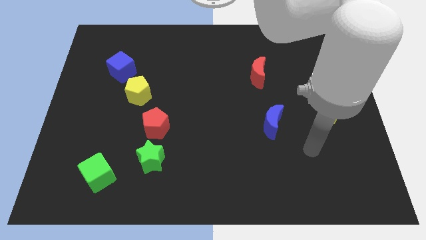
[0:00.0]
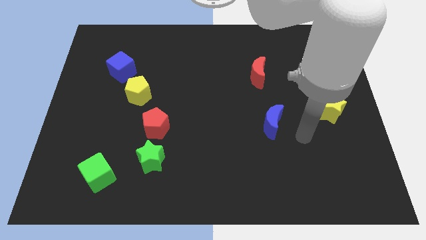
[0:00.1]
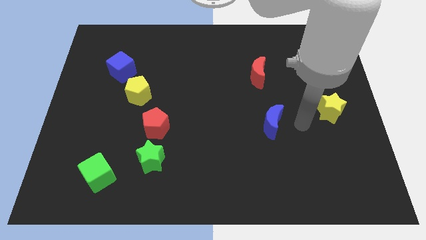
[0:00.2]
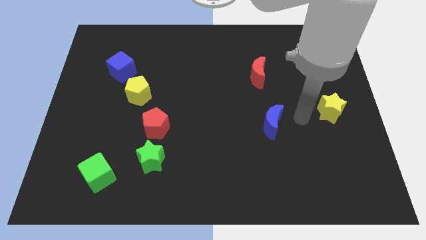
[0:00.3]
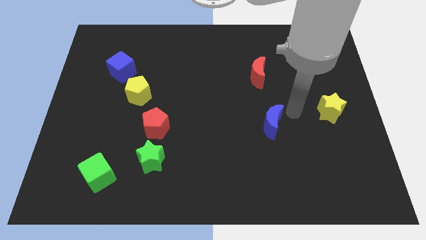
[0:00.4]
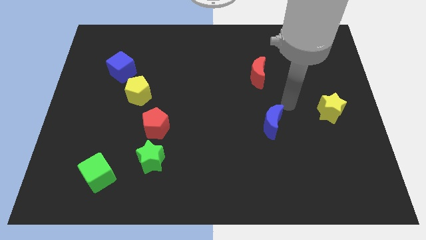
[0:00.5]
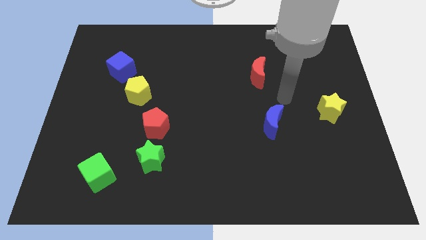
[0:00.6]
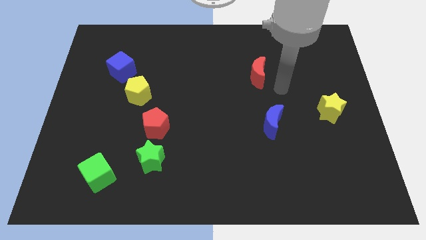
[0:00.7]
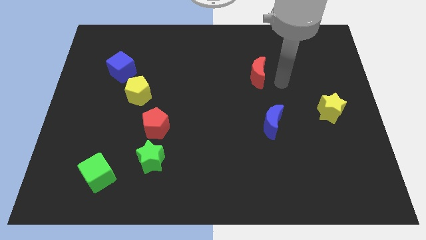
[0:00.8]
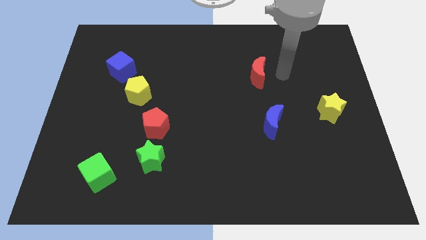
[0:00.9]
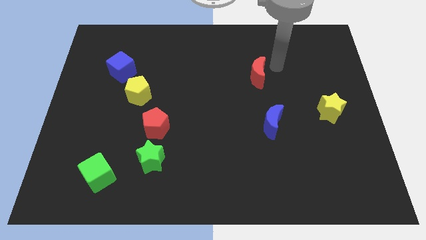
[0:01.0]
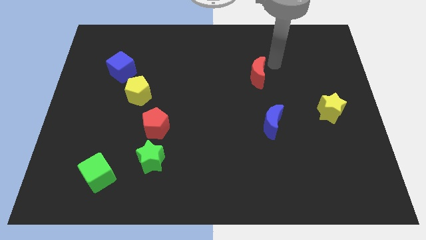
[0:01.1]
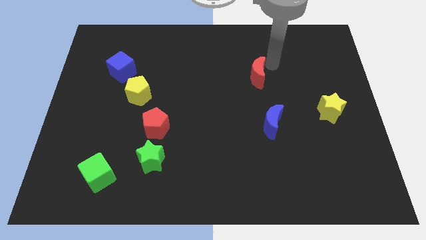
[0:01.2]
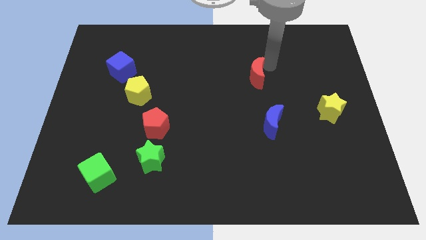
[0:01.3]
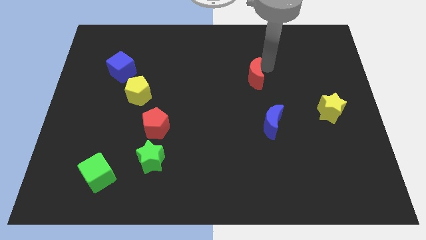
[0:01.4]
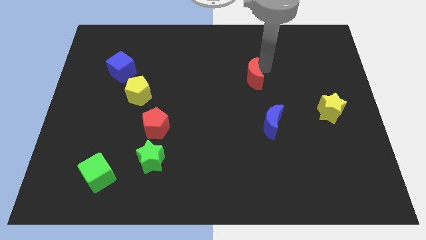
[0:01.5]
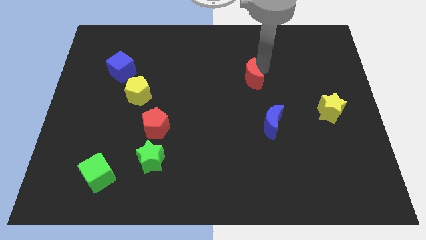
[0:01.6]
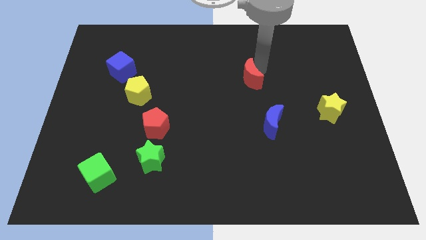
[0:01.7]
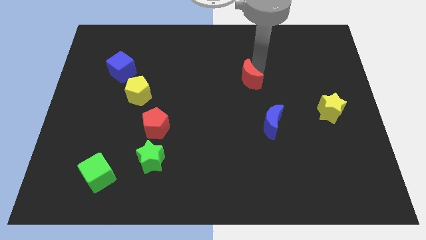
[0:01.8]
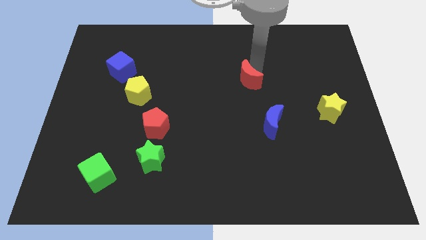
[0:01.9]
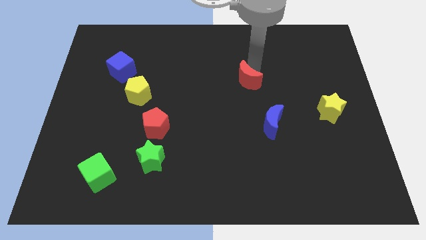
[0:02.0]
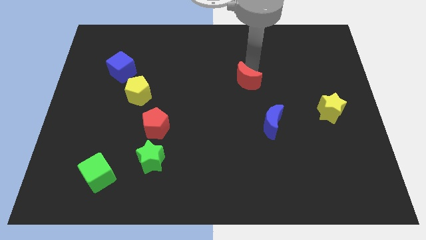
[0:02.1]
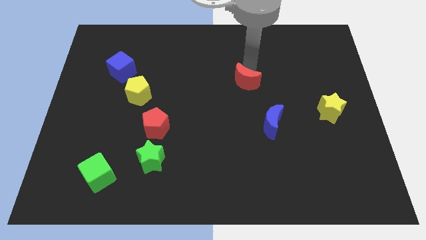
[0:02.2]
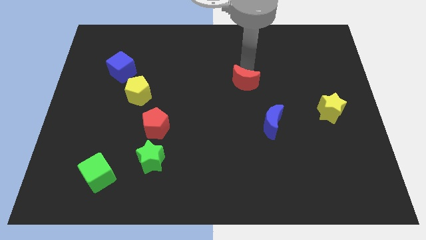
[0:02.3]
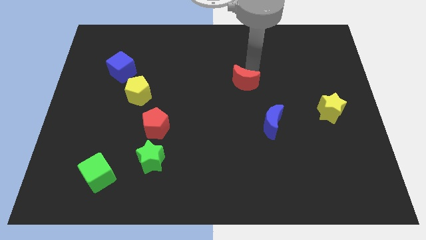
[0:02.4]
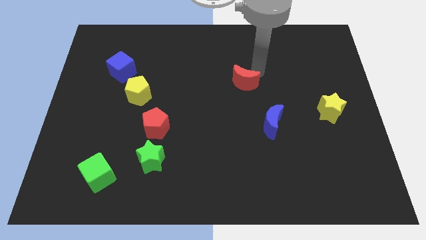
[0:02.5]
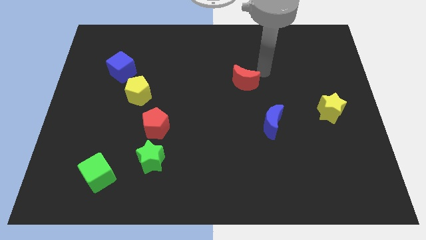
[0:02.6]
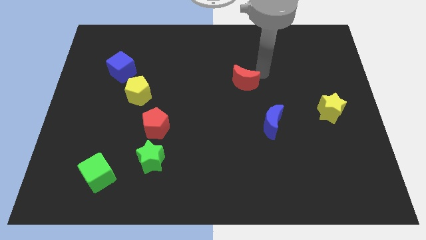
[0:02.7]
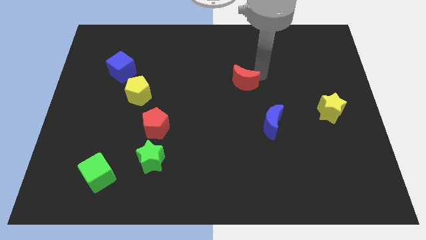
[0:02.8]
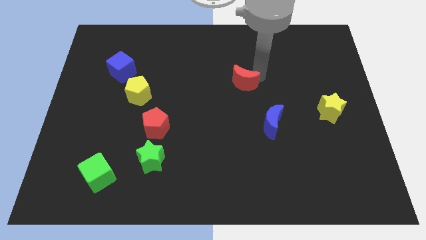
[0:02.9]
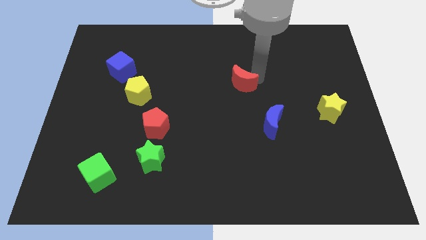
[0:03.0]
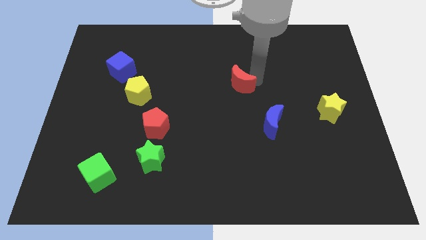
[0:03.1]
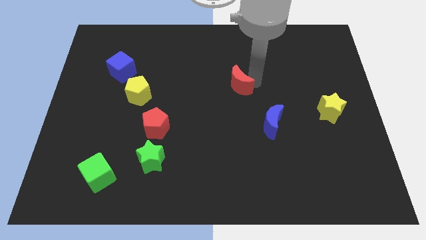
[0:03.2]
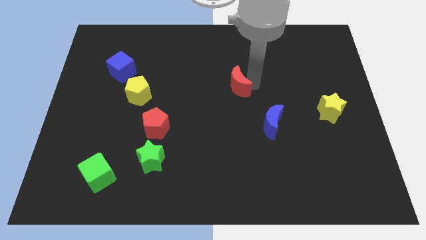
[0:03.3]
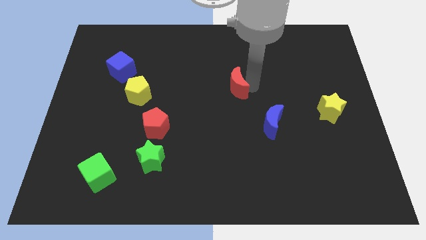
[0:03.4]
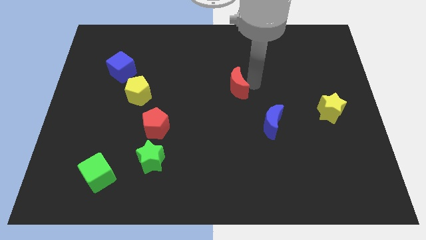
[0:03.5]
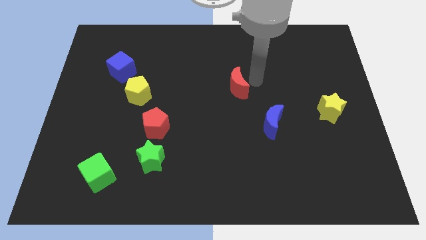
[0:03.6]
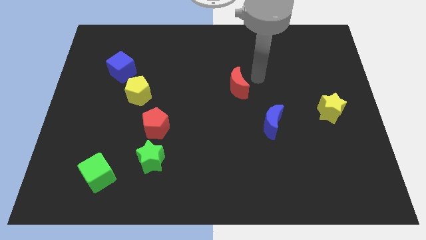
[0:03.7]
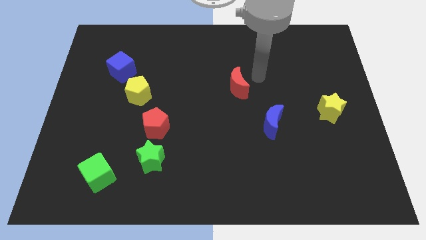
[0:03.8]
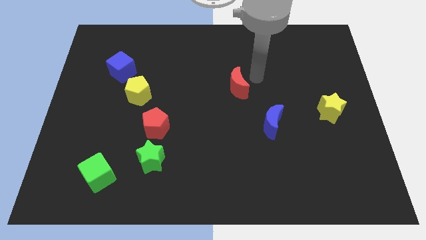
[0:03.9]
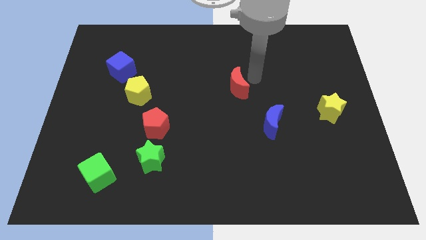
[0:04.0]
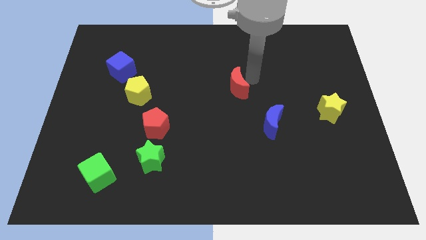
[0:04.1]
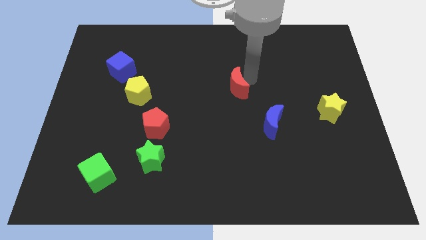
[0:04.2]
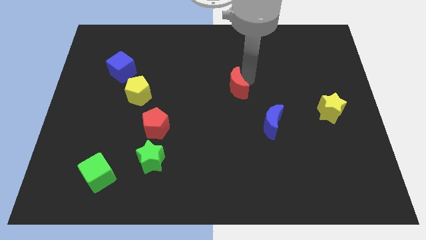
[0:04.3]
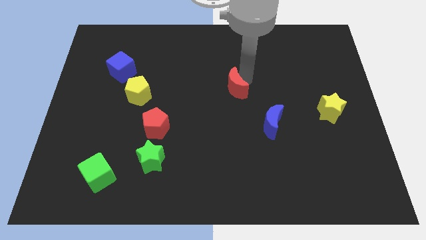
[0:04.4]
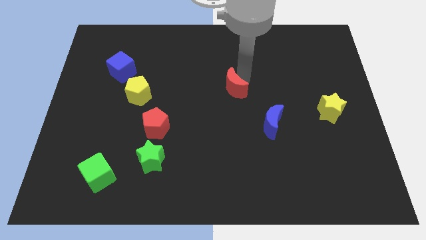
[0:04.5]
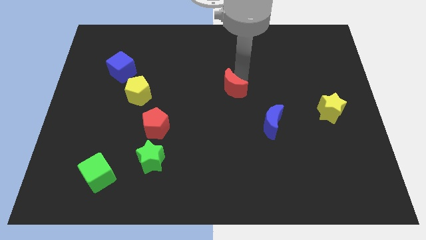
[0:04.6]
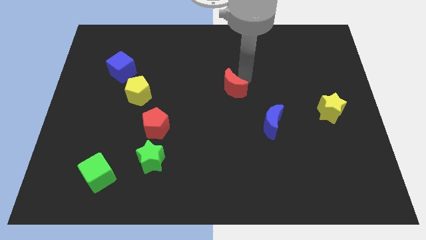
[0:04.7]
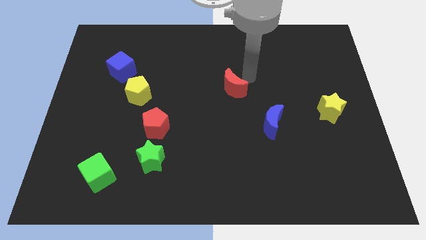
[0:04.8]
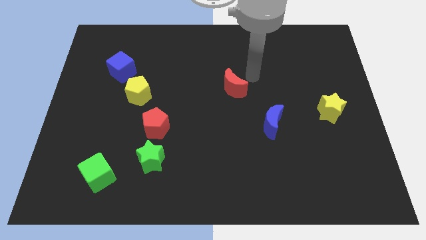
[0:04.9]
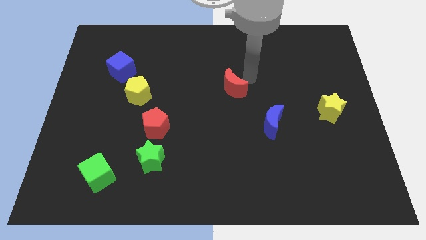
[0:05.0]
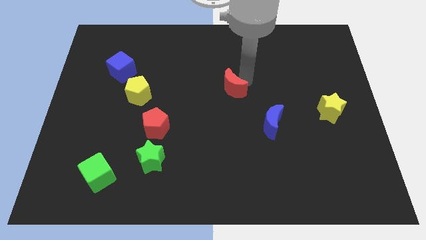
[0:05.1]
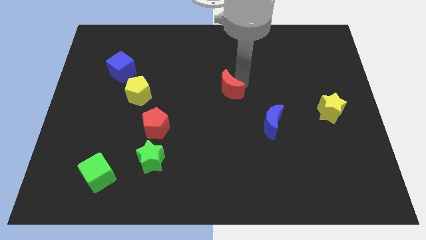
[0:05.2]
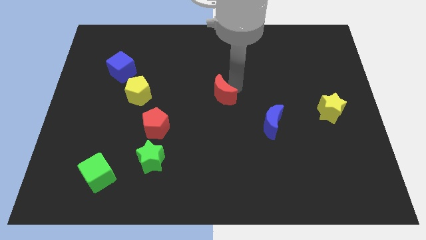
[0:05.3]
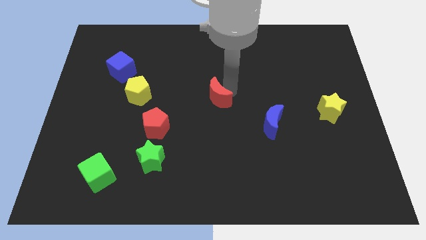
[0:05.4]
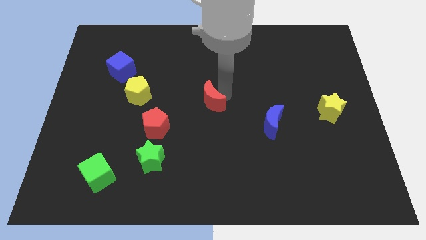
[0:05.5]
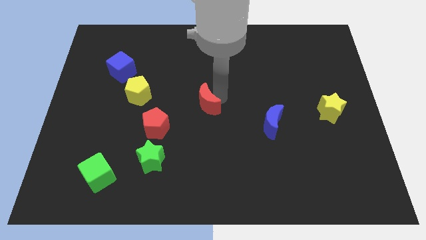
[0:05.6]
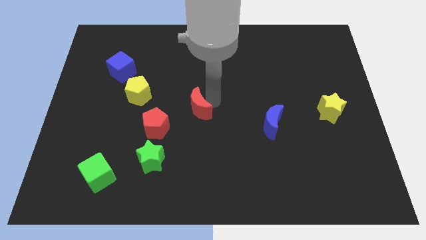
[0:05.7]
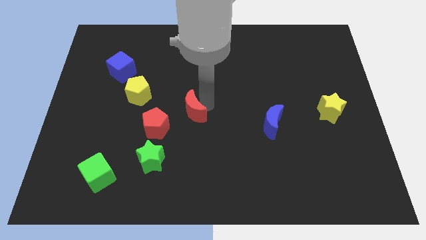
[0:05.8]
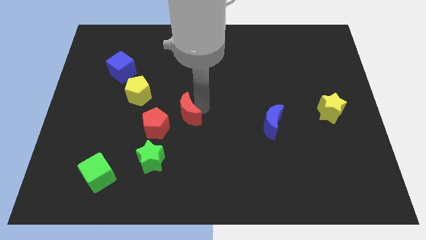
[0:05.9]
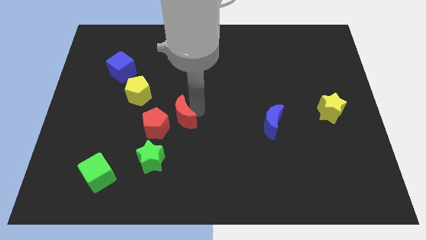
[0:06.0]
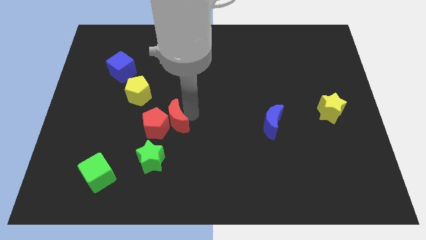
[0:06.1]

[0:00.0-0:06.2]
slide the red moon towards the red pentagon
